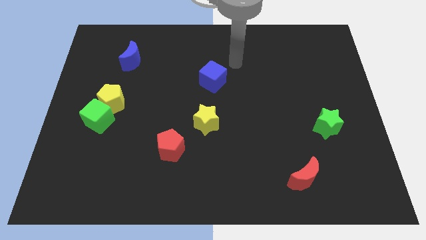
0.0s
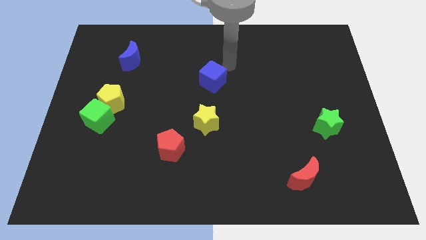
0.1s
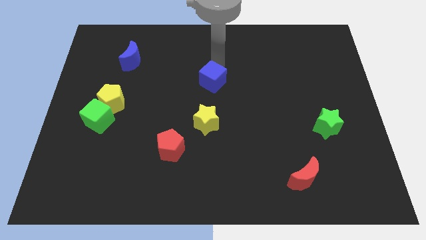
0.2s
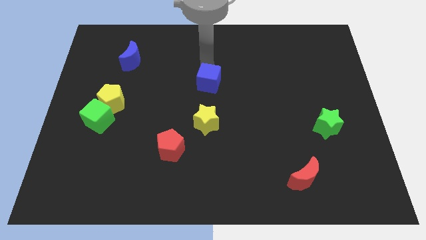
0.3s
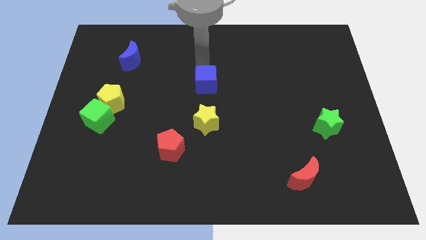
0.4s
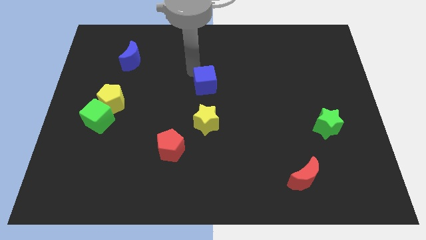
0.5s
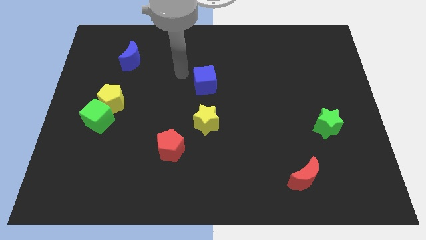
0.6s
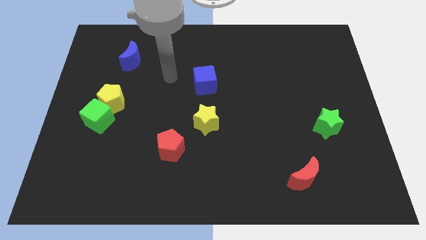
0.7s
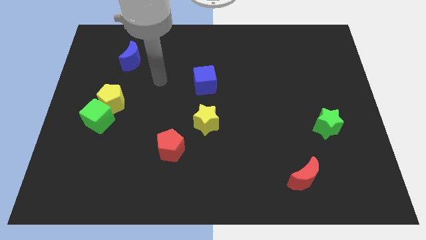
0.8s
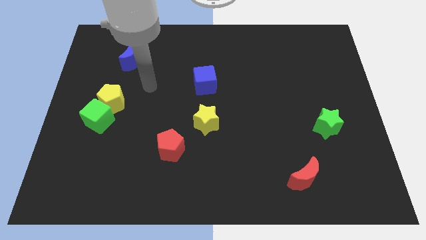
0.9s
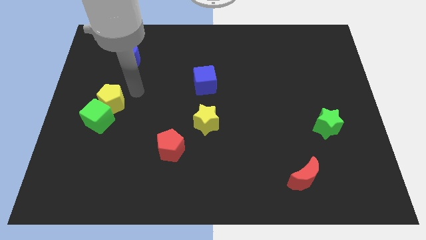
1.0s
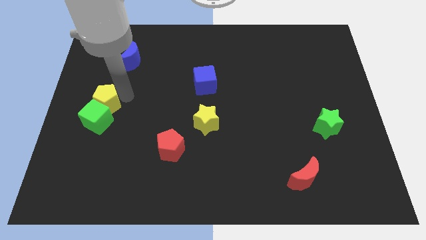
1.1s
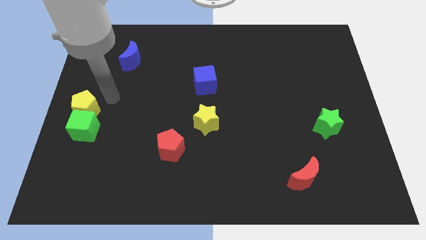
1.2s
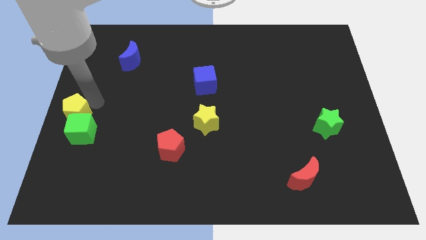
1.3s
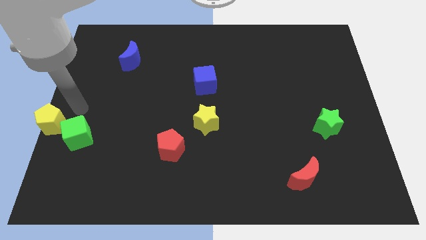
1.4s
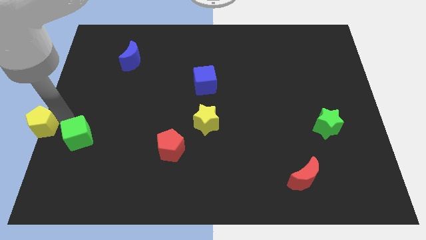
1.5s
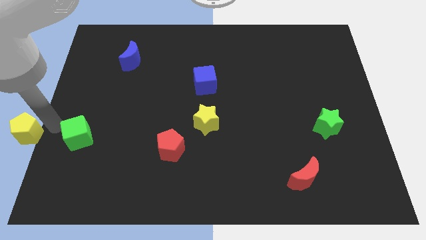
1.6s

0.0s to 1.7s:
move the green cube away from the yellow pentagon

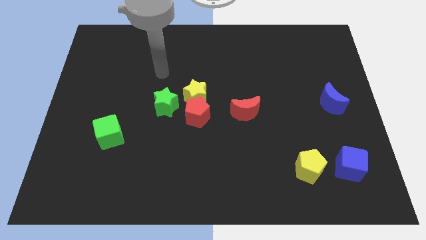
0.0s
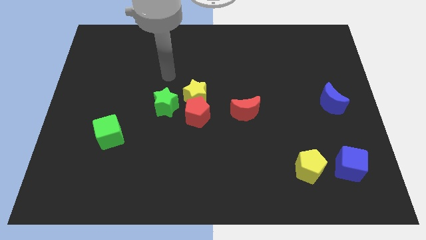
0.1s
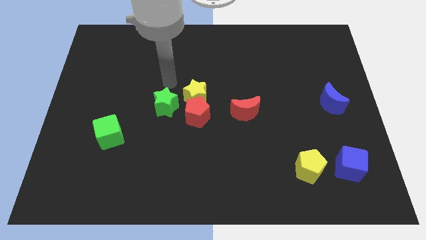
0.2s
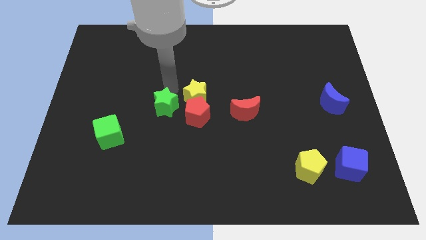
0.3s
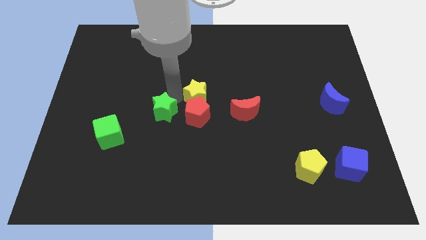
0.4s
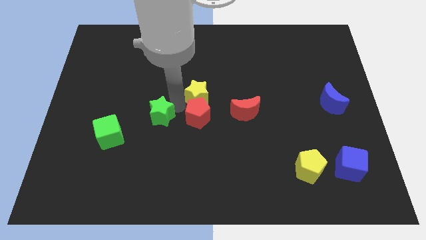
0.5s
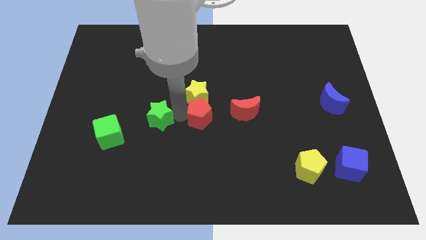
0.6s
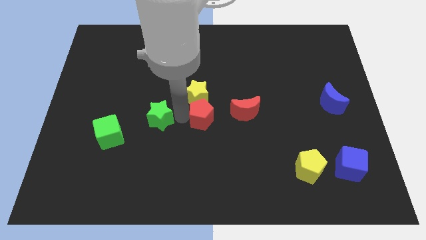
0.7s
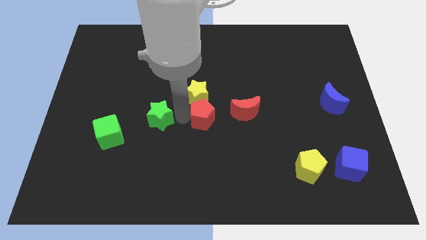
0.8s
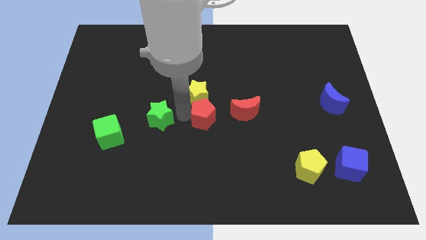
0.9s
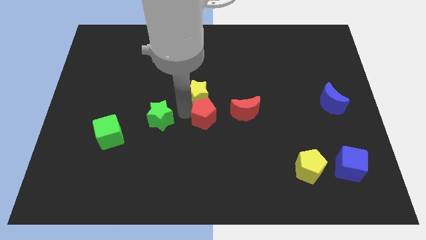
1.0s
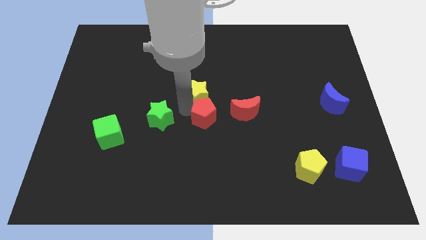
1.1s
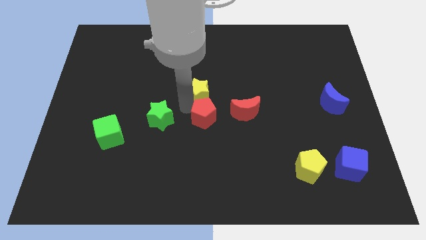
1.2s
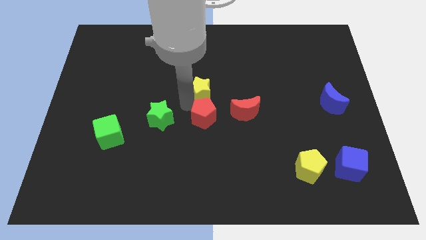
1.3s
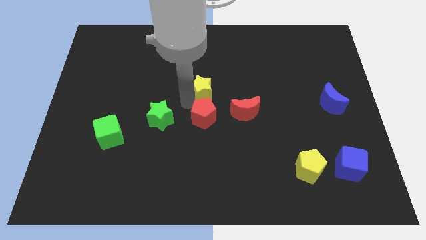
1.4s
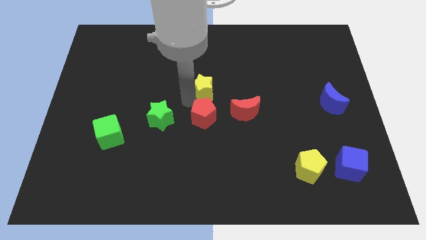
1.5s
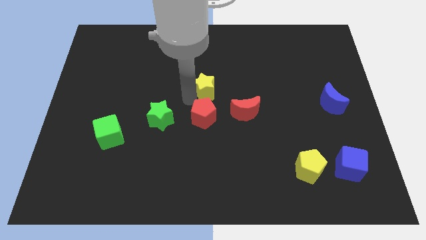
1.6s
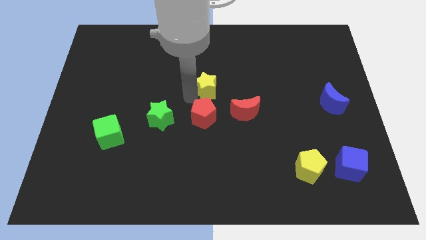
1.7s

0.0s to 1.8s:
separate the yellow star from the red pentagon and green star

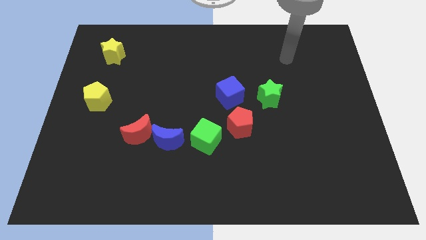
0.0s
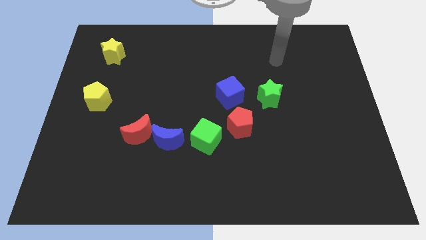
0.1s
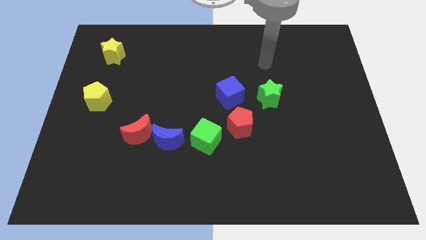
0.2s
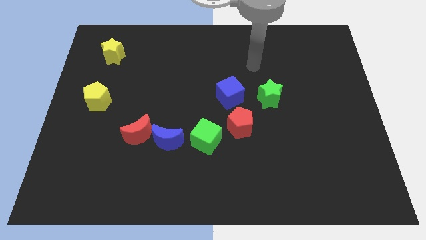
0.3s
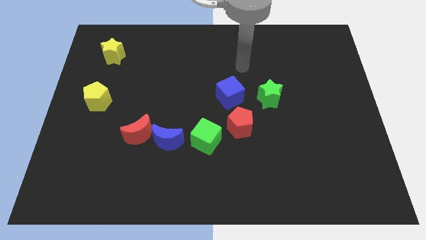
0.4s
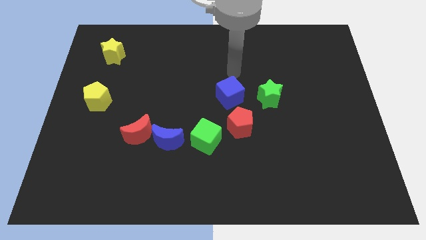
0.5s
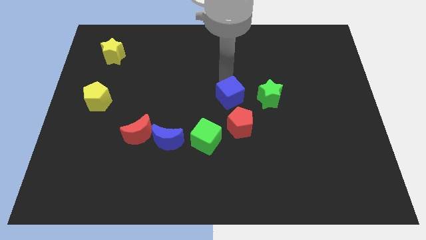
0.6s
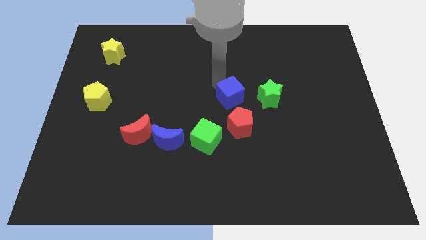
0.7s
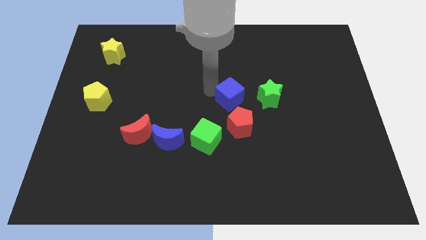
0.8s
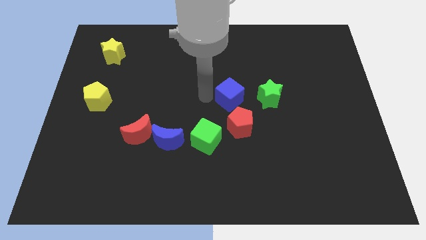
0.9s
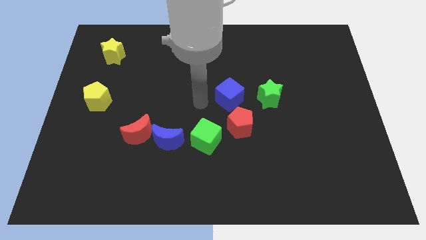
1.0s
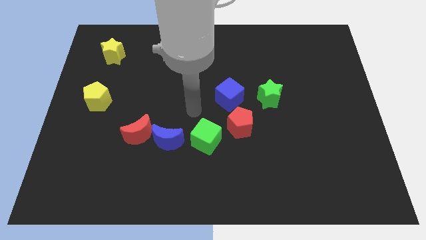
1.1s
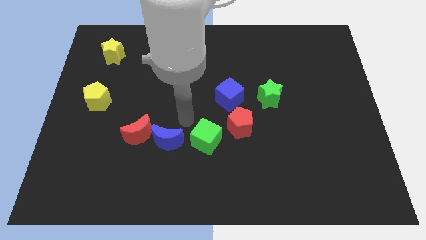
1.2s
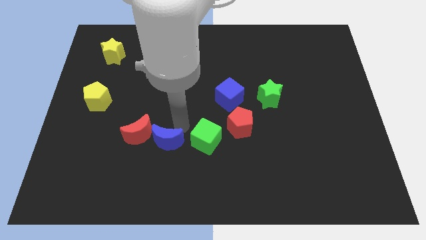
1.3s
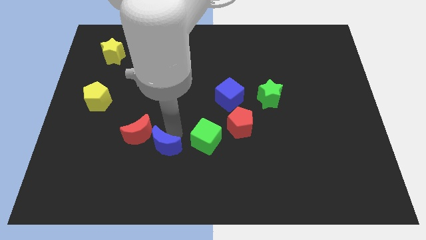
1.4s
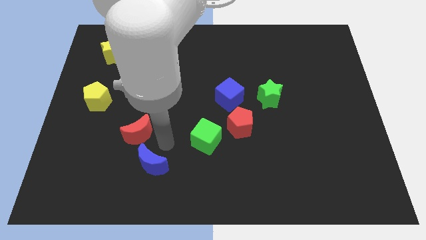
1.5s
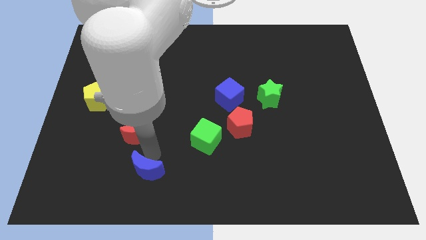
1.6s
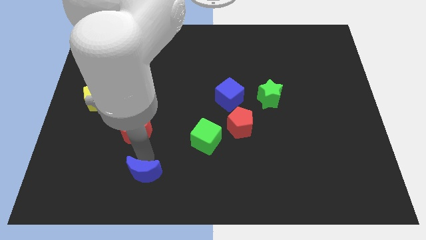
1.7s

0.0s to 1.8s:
move the red moon away from the blue moon

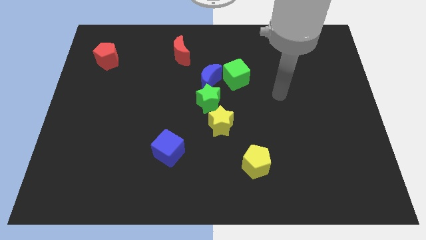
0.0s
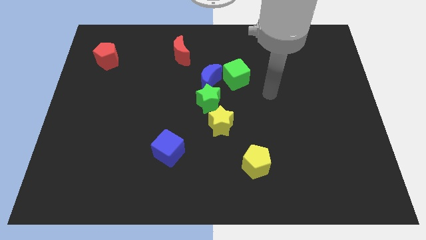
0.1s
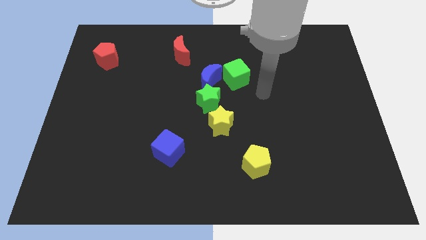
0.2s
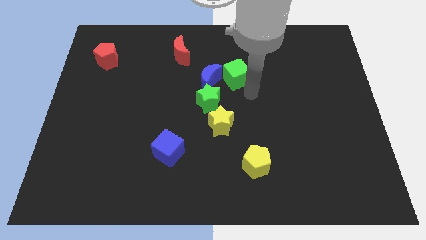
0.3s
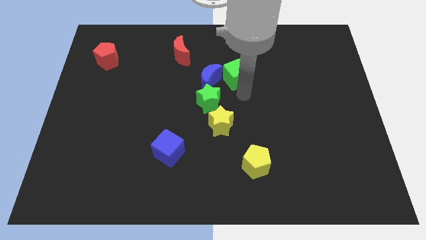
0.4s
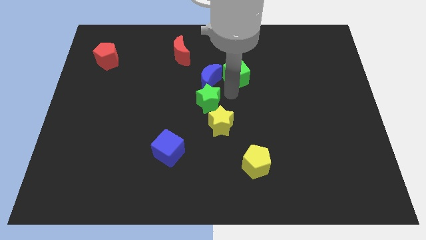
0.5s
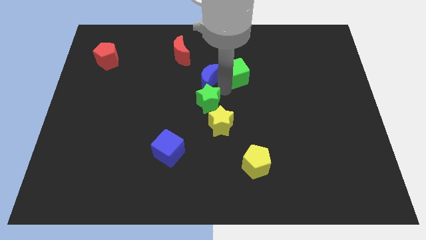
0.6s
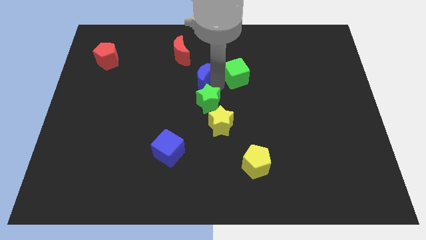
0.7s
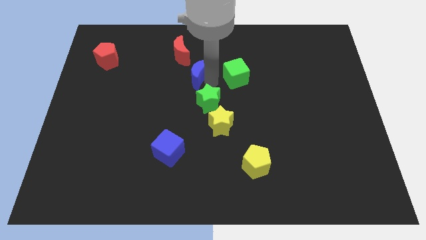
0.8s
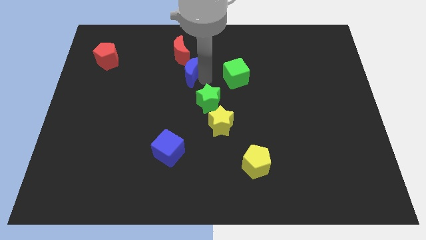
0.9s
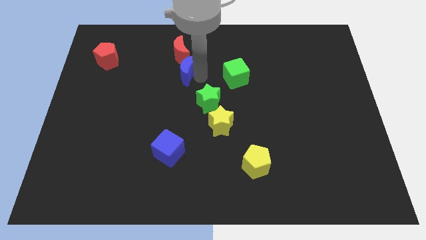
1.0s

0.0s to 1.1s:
separate the blue moon from the green star and green cube

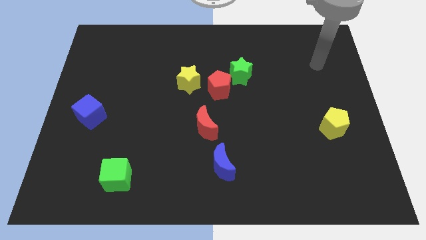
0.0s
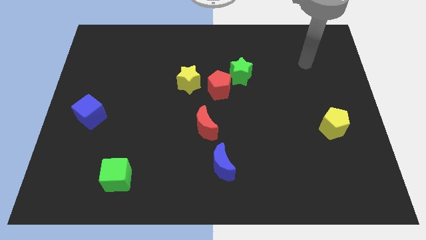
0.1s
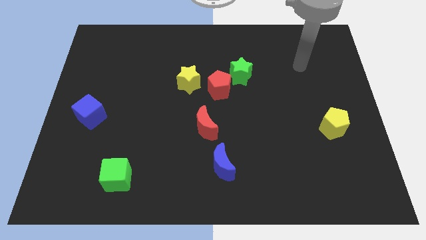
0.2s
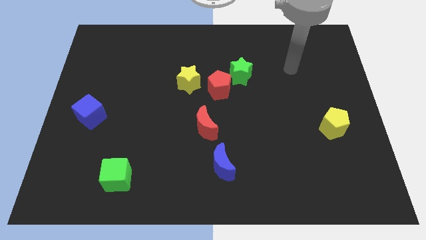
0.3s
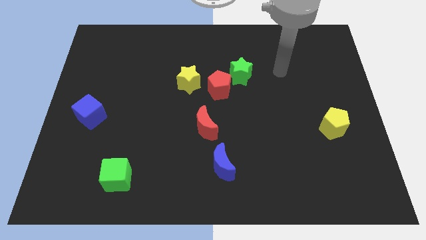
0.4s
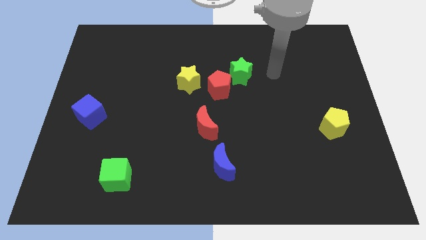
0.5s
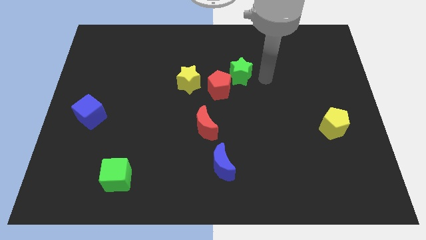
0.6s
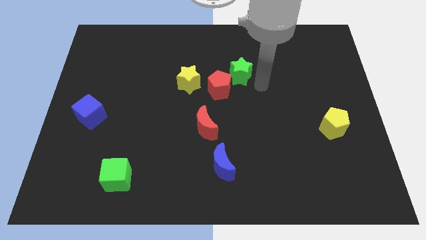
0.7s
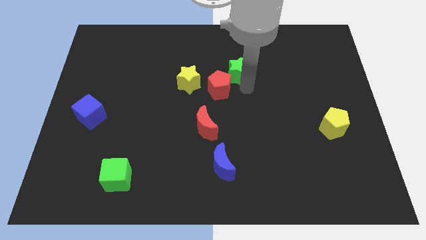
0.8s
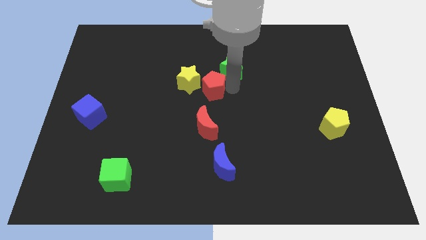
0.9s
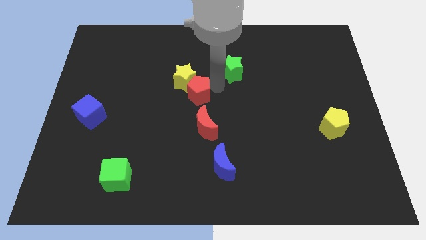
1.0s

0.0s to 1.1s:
move the green star away from the red pentagon

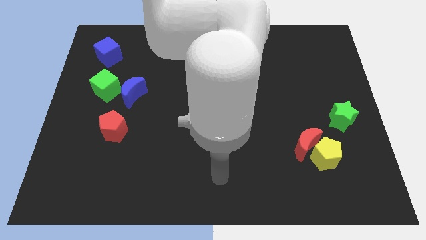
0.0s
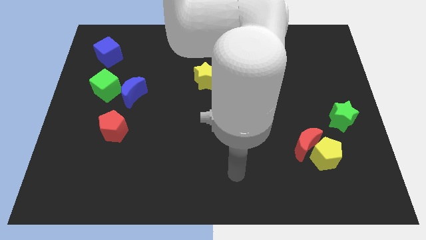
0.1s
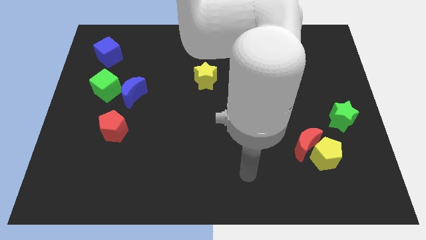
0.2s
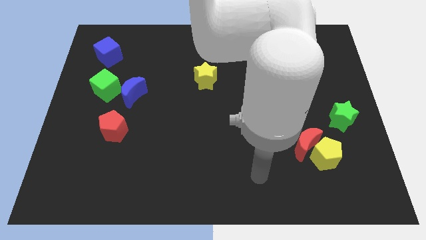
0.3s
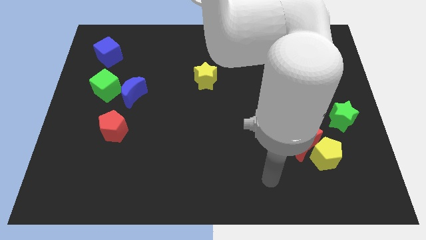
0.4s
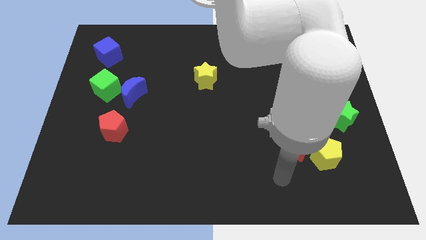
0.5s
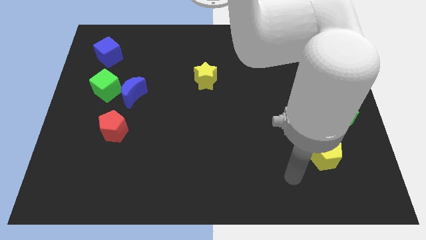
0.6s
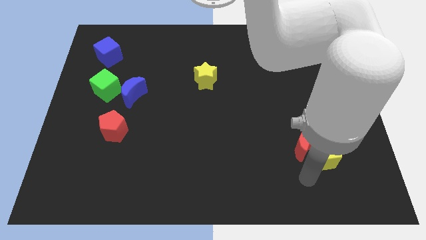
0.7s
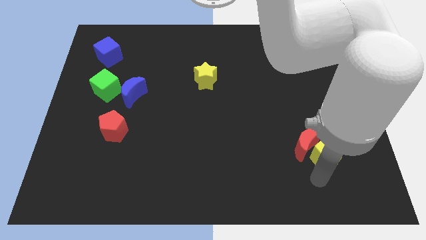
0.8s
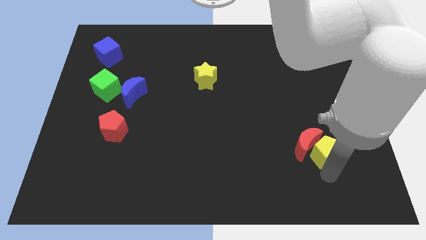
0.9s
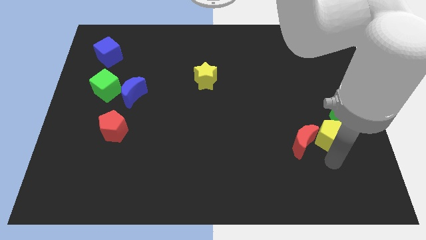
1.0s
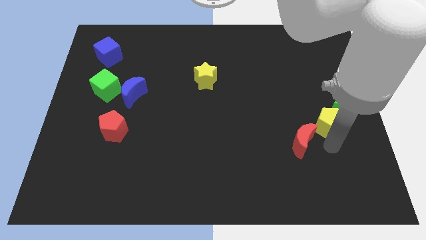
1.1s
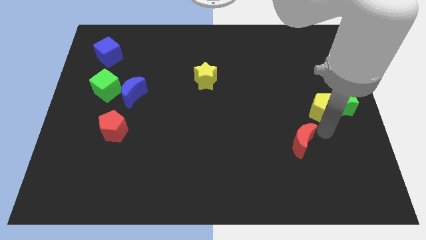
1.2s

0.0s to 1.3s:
move the red moon away from the yellow pentagon

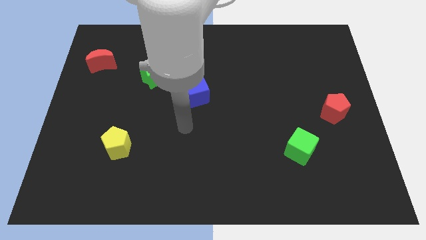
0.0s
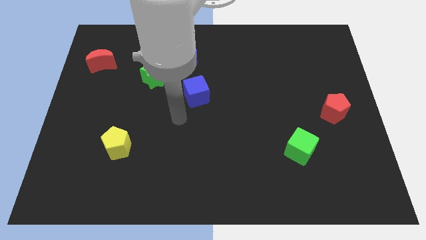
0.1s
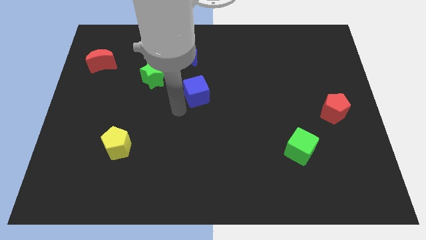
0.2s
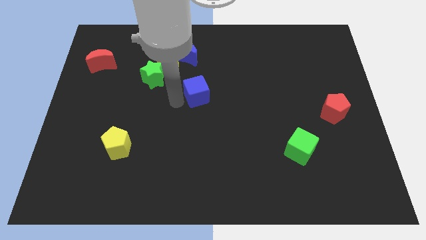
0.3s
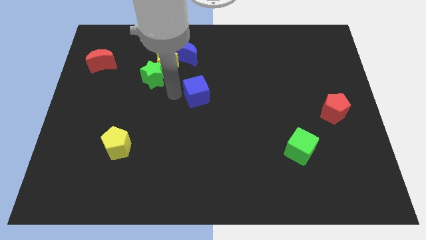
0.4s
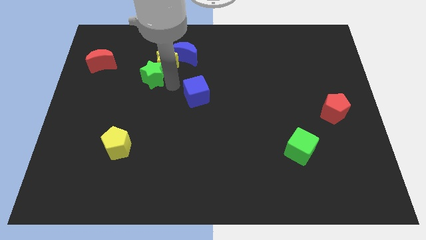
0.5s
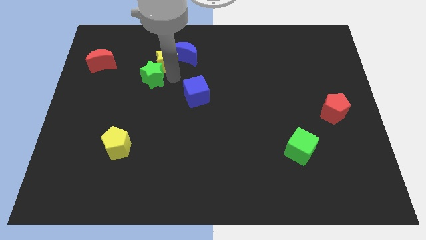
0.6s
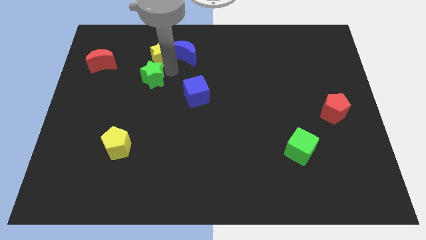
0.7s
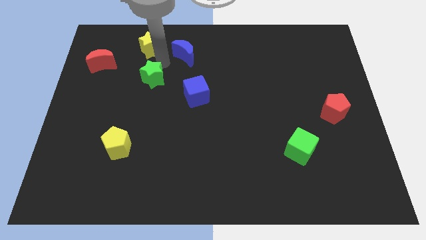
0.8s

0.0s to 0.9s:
move the green star away from the yellow star
